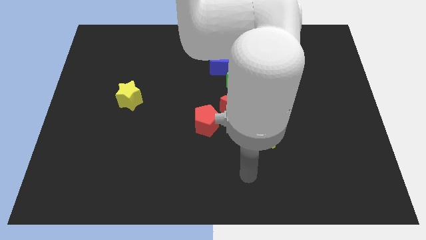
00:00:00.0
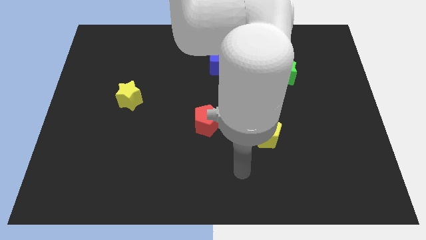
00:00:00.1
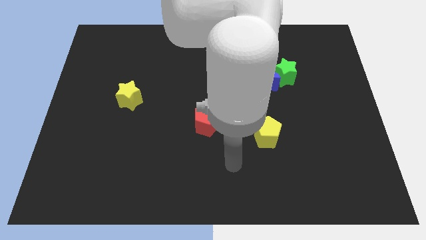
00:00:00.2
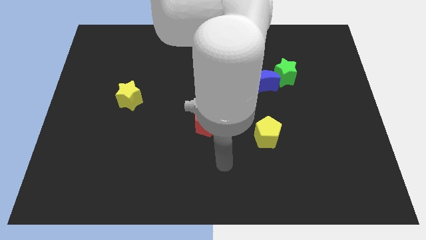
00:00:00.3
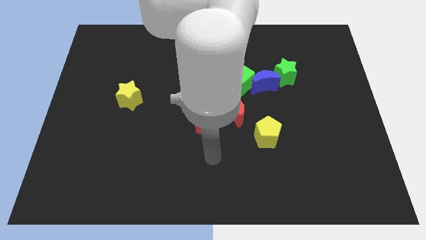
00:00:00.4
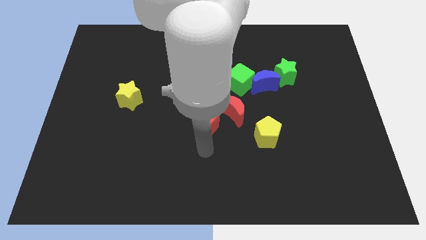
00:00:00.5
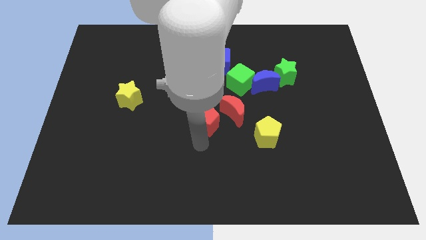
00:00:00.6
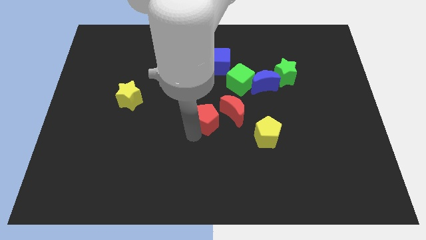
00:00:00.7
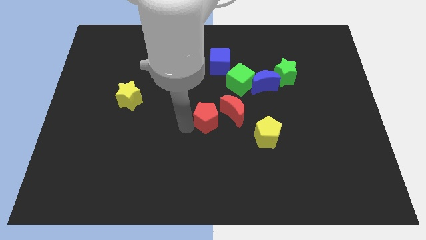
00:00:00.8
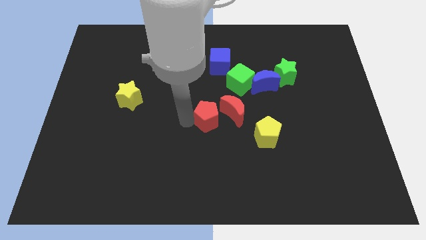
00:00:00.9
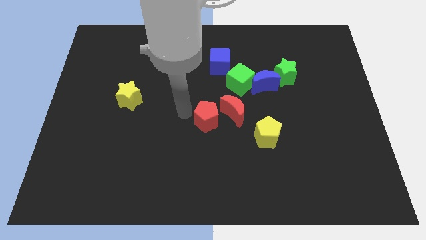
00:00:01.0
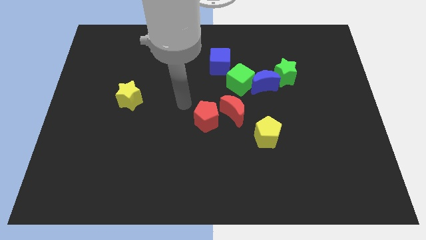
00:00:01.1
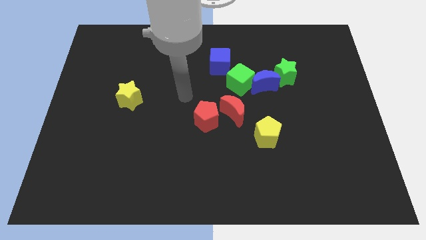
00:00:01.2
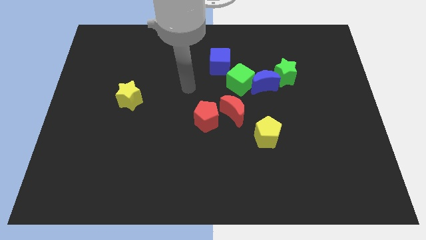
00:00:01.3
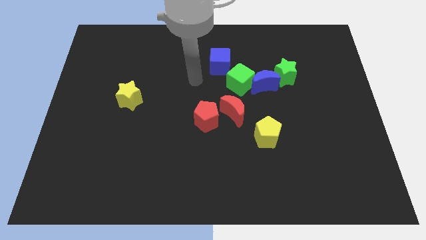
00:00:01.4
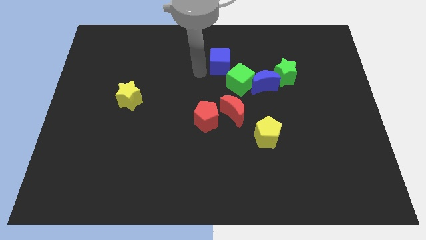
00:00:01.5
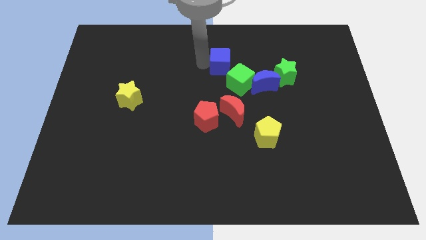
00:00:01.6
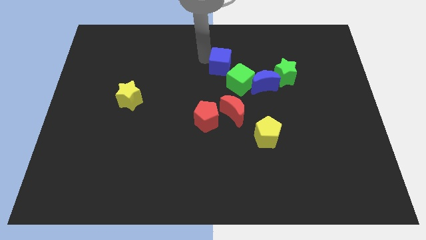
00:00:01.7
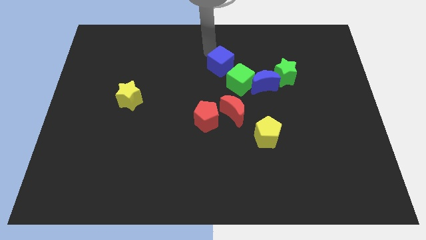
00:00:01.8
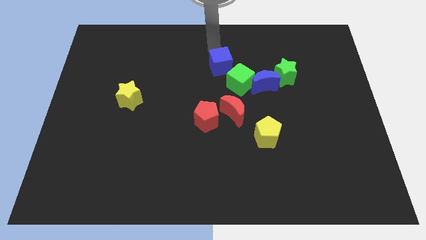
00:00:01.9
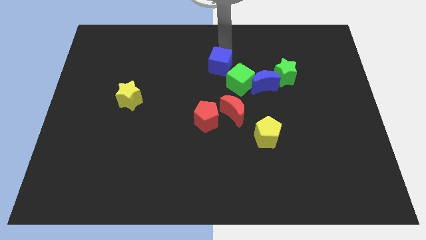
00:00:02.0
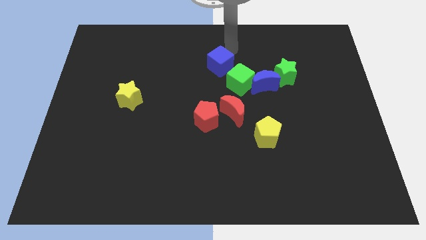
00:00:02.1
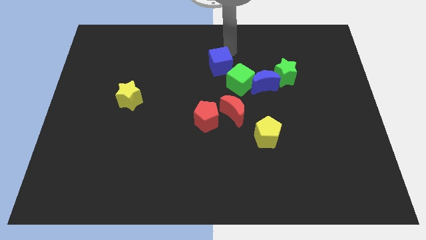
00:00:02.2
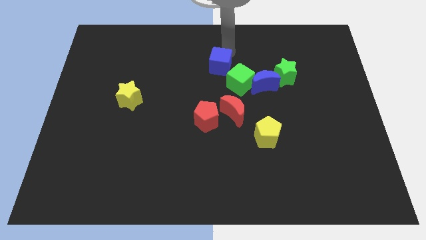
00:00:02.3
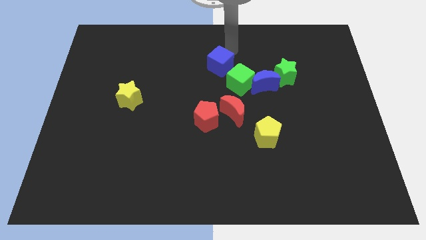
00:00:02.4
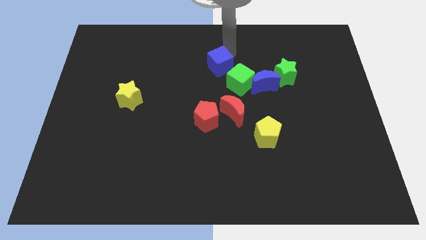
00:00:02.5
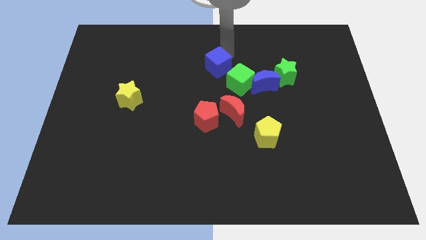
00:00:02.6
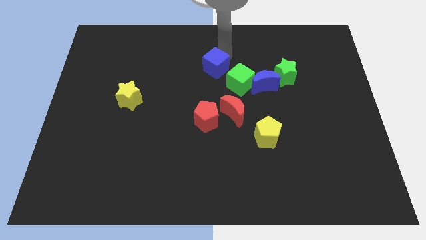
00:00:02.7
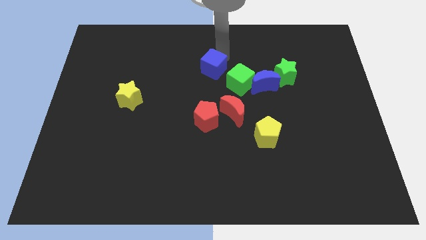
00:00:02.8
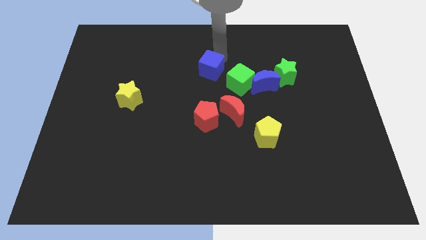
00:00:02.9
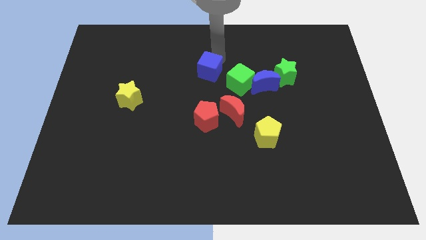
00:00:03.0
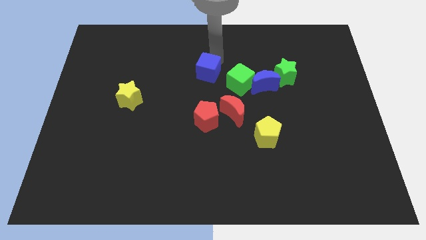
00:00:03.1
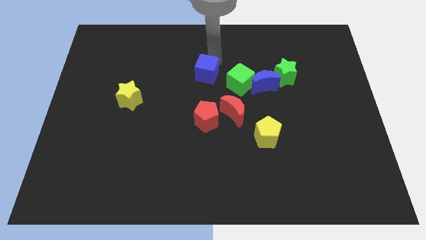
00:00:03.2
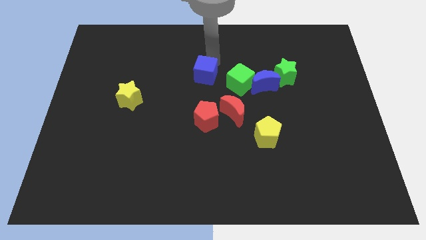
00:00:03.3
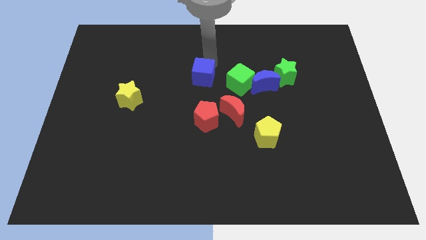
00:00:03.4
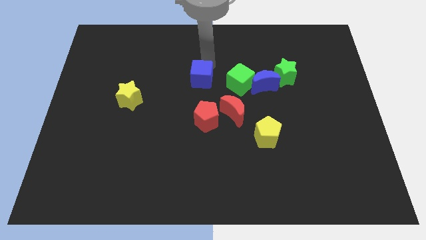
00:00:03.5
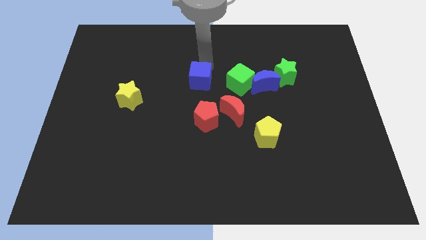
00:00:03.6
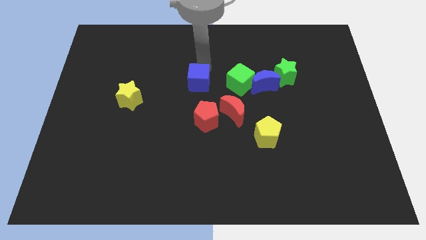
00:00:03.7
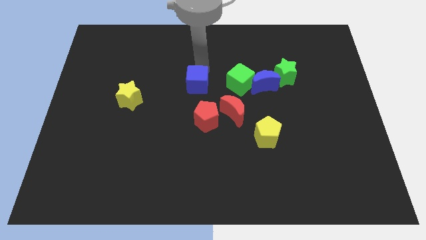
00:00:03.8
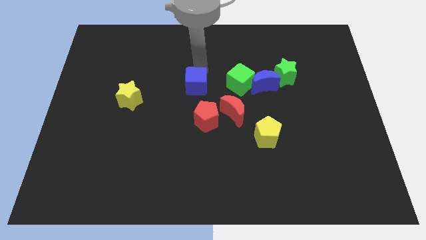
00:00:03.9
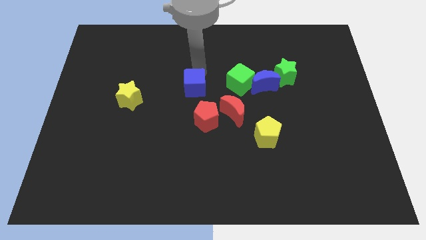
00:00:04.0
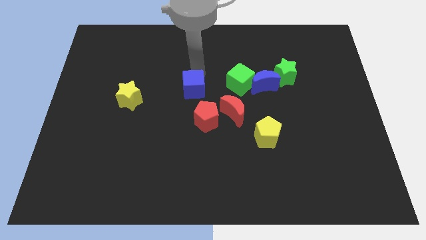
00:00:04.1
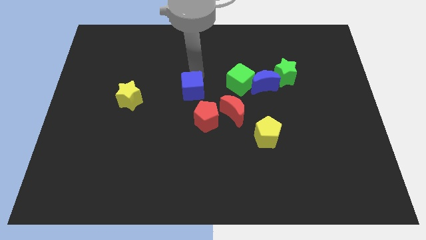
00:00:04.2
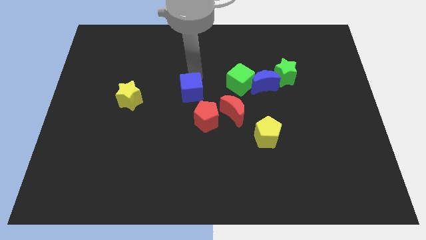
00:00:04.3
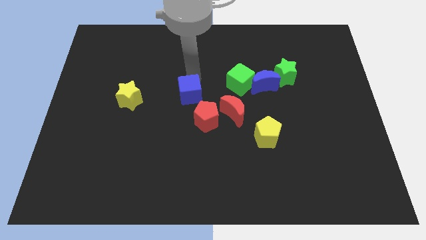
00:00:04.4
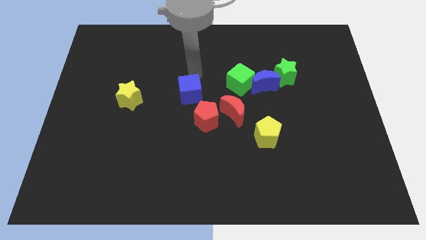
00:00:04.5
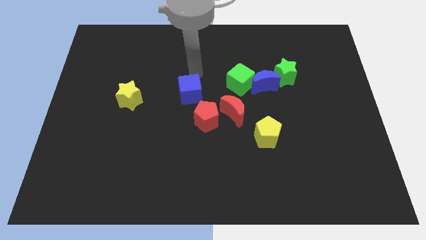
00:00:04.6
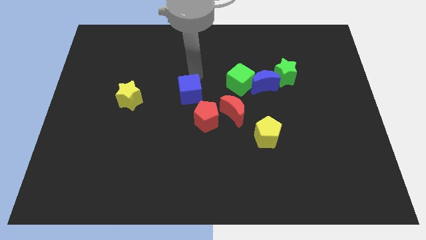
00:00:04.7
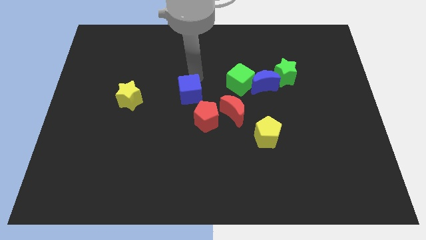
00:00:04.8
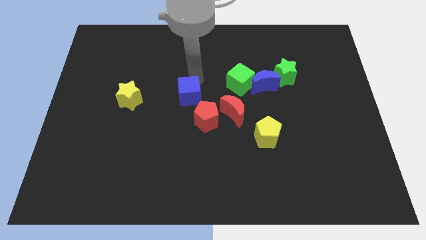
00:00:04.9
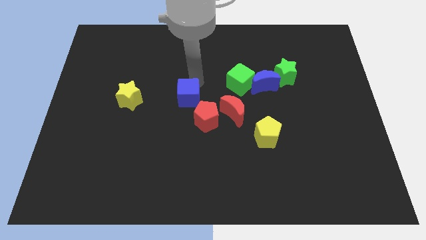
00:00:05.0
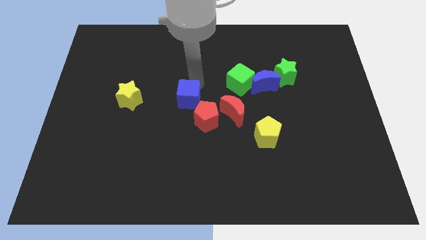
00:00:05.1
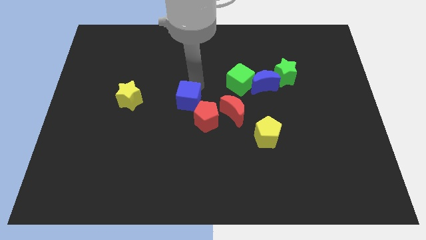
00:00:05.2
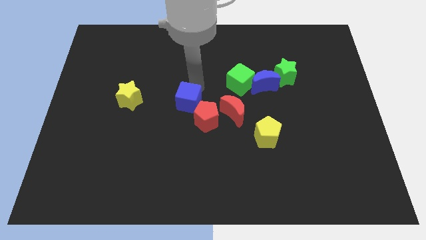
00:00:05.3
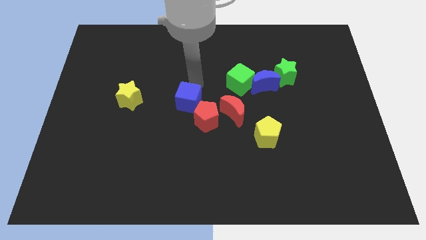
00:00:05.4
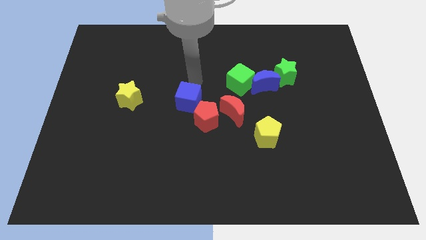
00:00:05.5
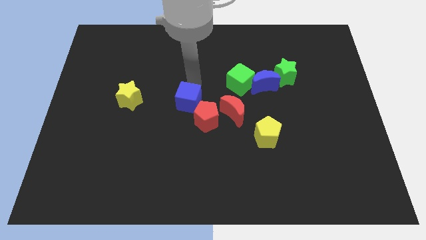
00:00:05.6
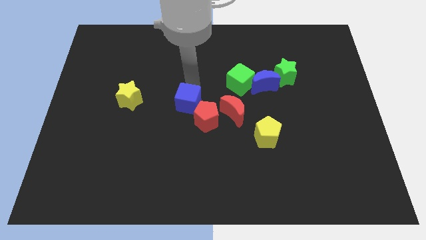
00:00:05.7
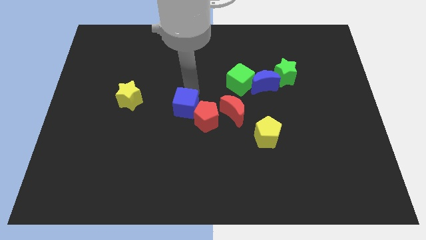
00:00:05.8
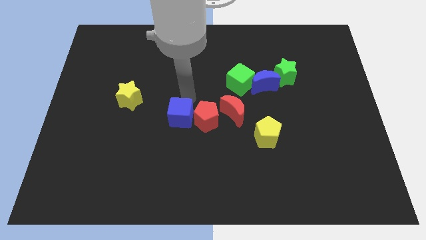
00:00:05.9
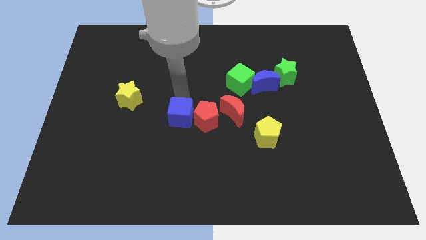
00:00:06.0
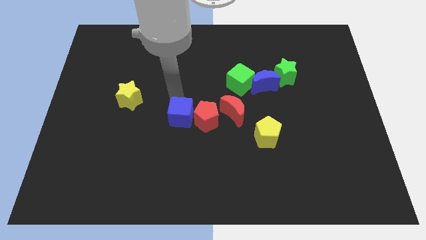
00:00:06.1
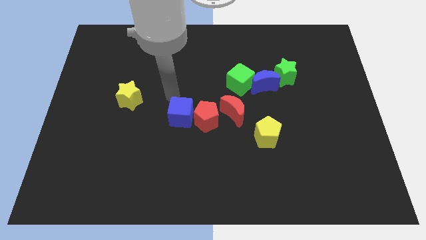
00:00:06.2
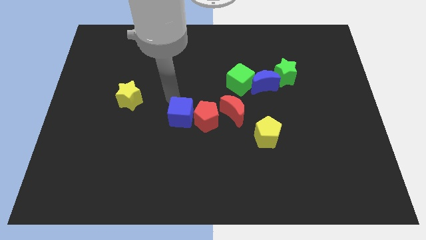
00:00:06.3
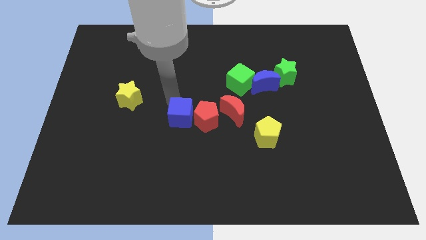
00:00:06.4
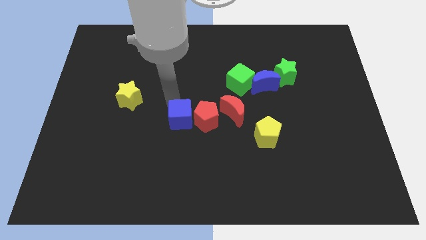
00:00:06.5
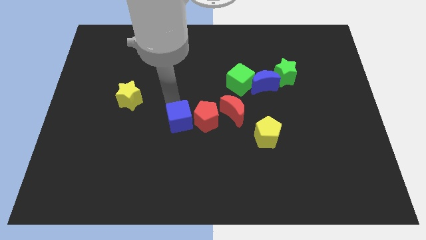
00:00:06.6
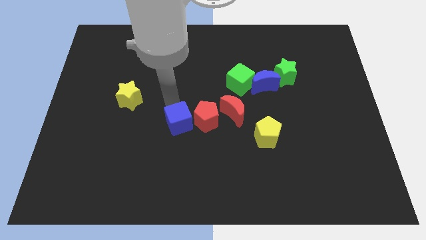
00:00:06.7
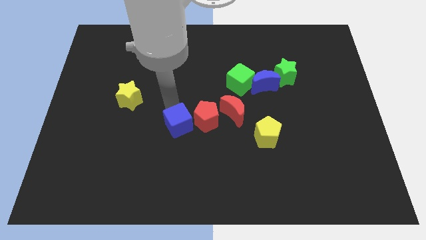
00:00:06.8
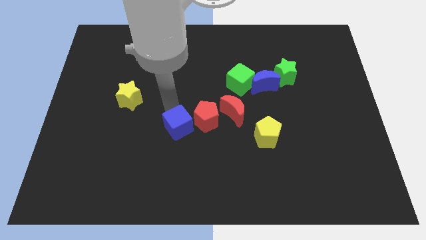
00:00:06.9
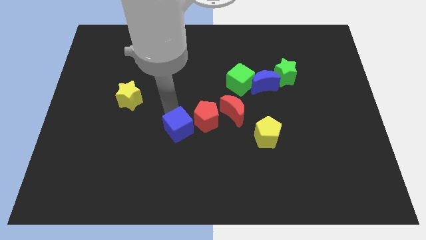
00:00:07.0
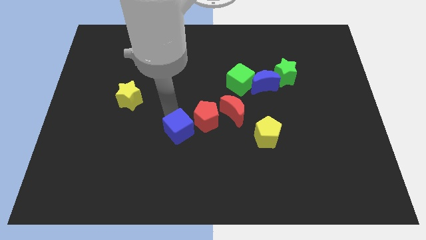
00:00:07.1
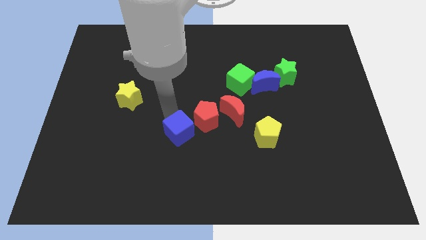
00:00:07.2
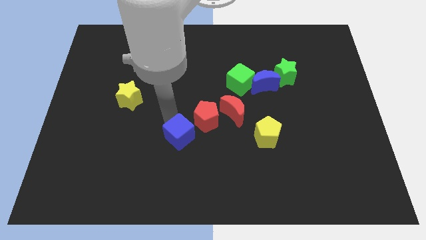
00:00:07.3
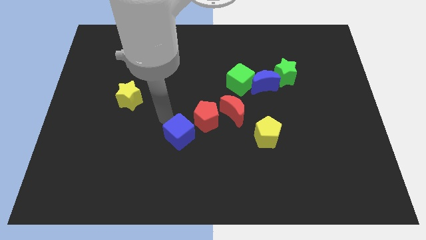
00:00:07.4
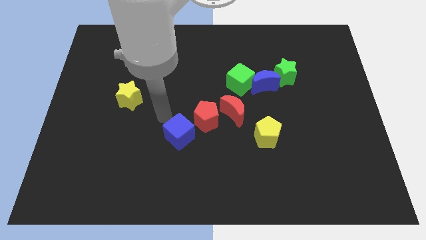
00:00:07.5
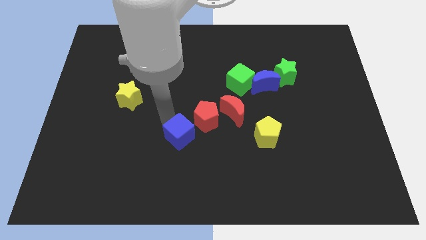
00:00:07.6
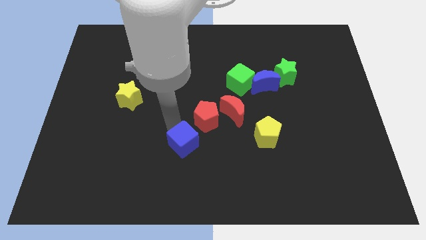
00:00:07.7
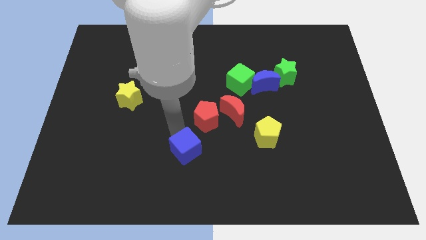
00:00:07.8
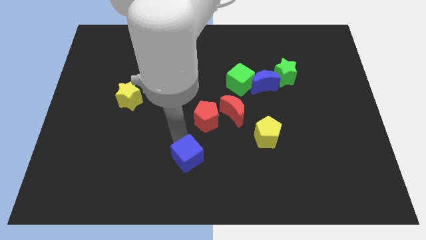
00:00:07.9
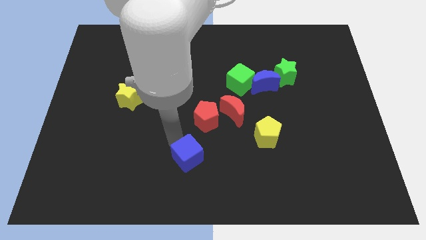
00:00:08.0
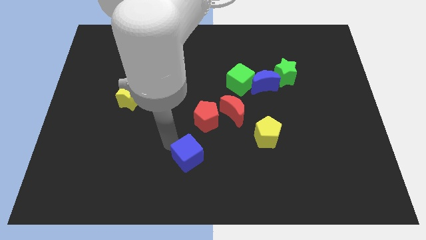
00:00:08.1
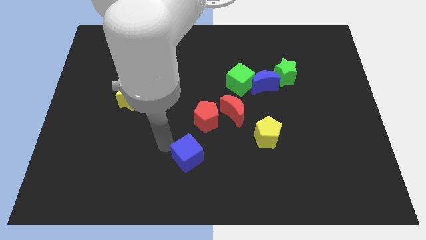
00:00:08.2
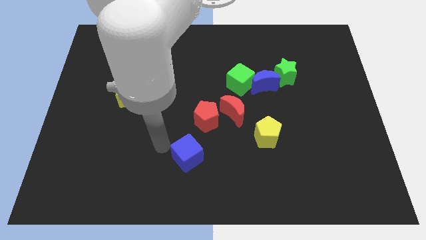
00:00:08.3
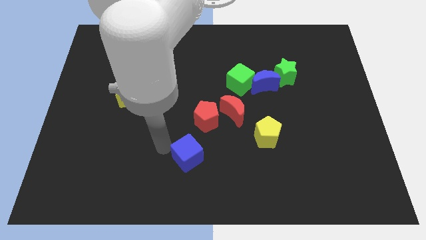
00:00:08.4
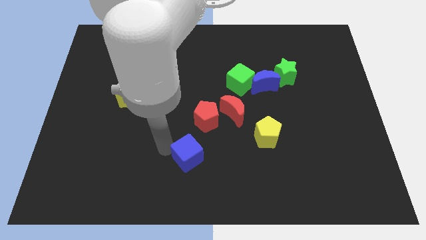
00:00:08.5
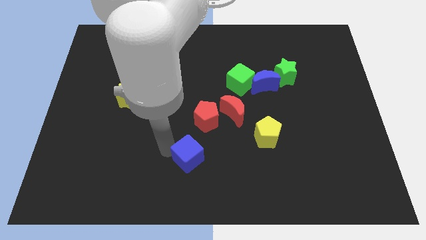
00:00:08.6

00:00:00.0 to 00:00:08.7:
push the blue cube to the bottom side
